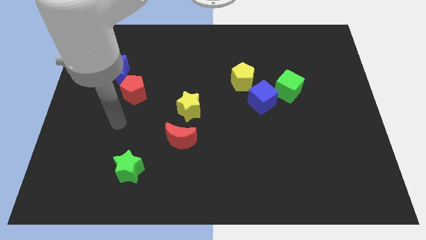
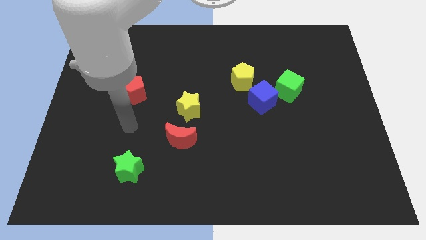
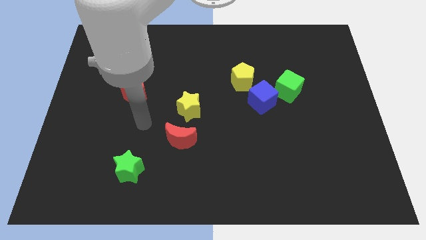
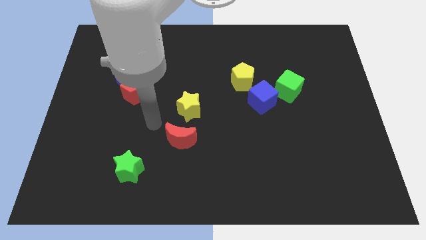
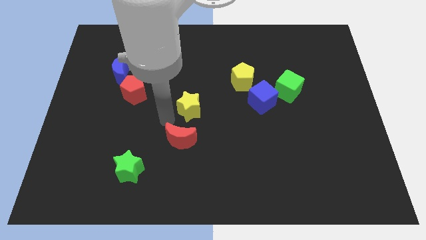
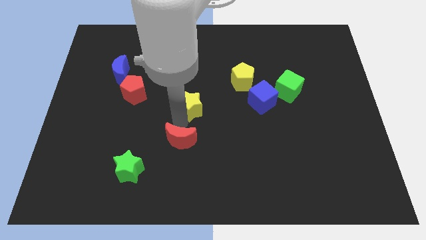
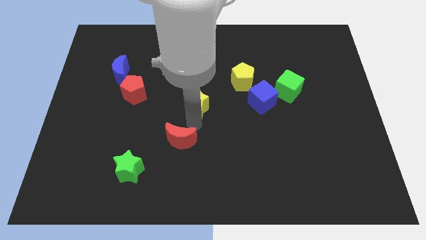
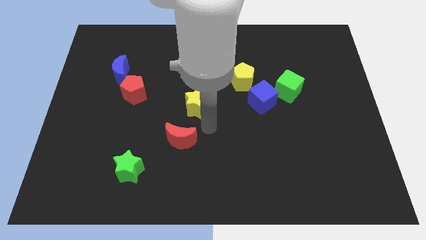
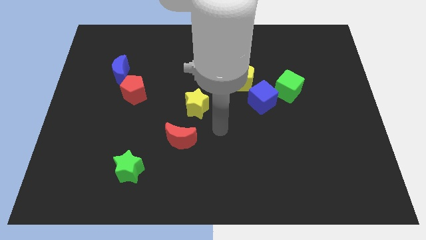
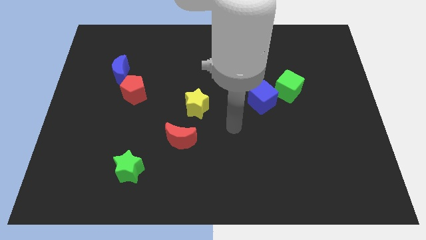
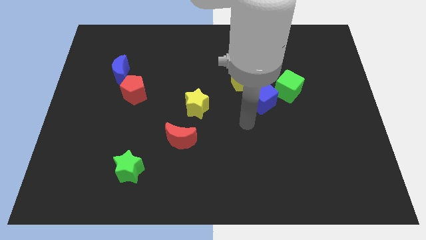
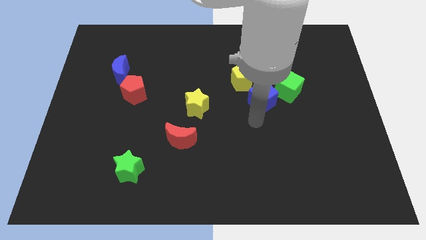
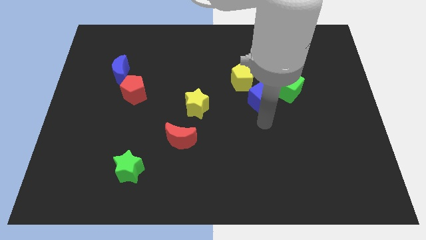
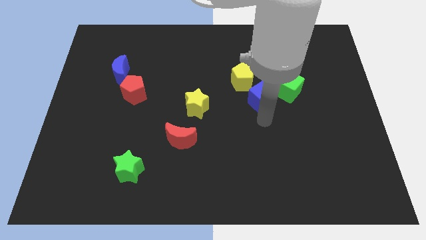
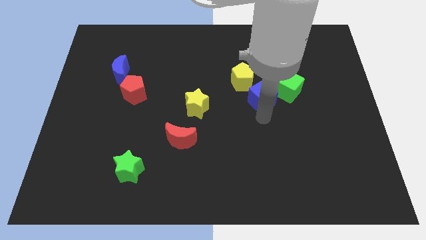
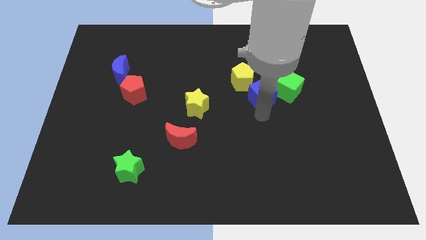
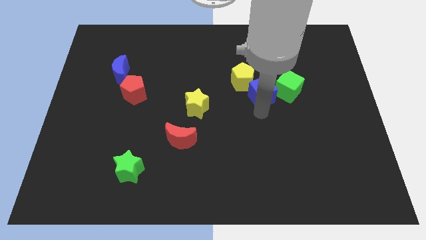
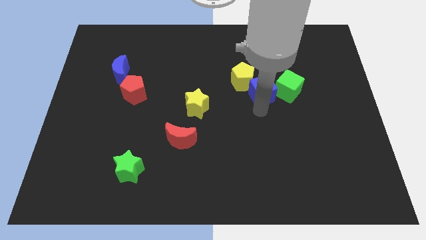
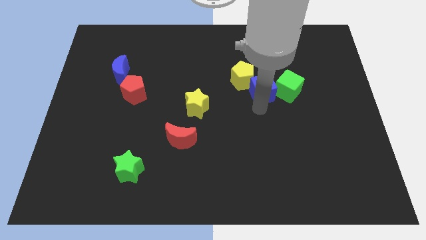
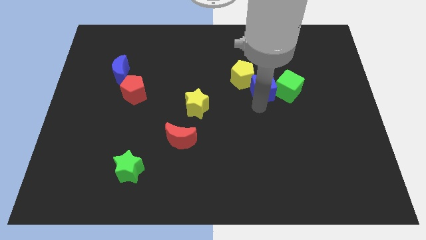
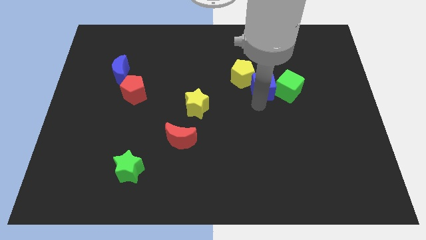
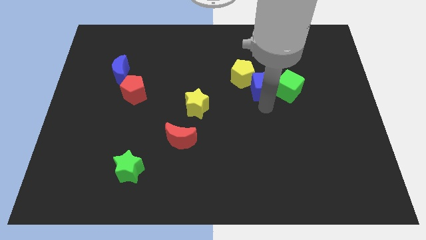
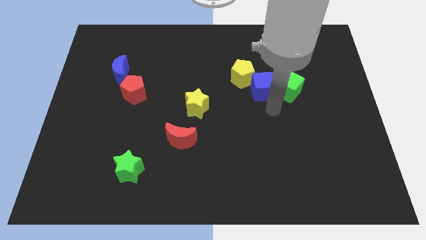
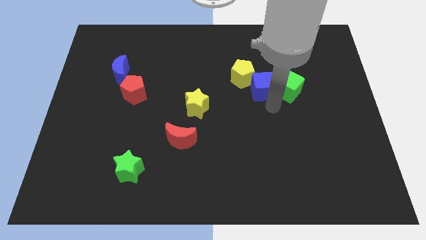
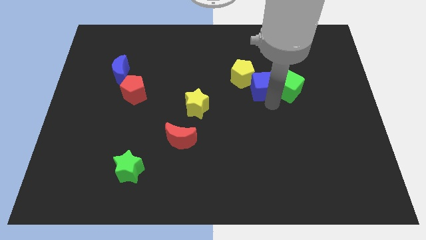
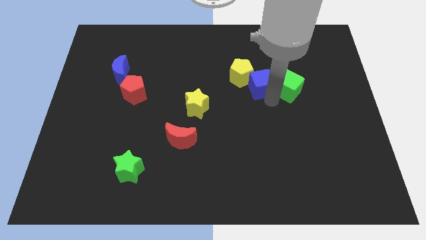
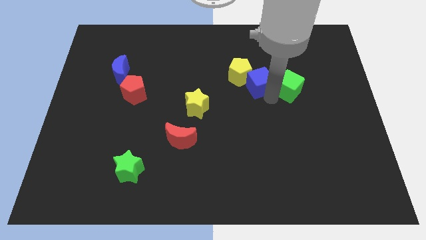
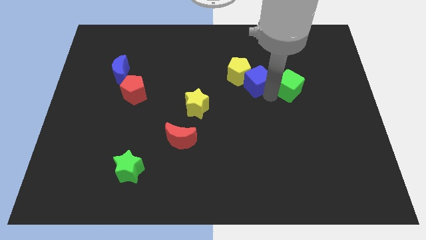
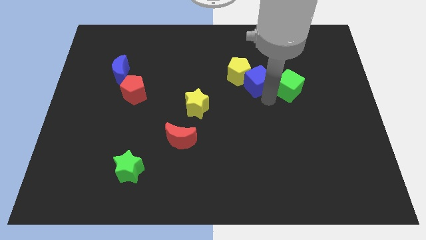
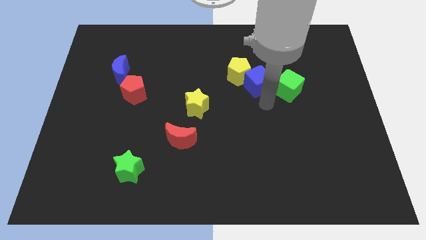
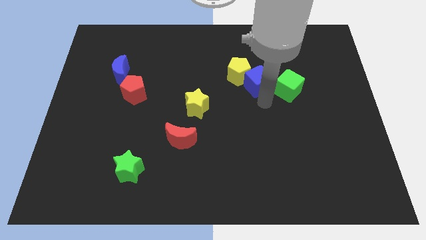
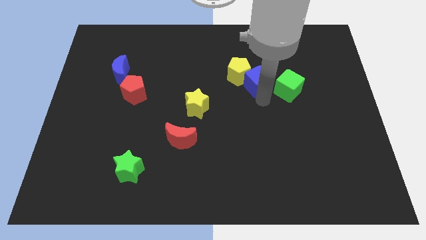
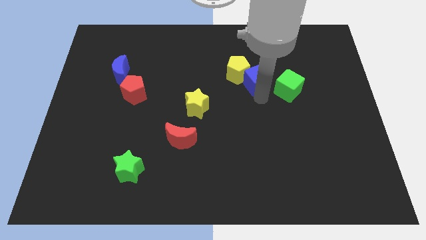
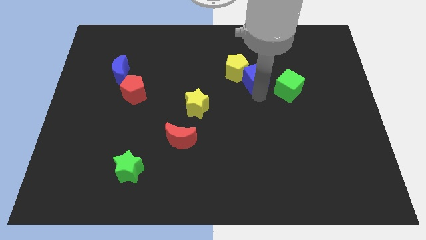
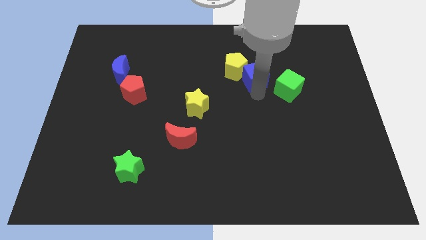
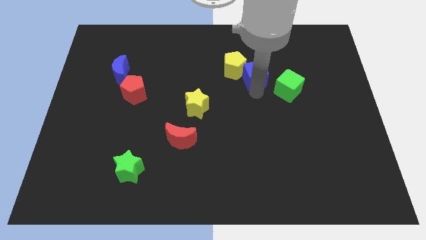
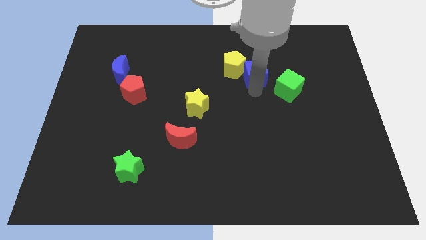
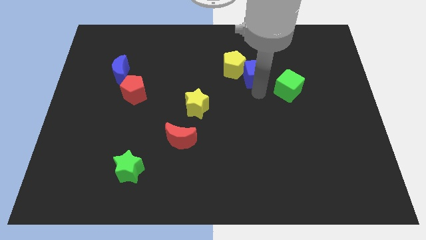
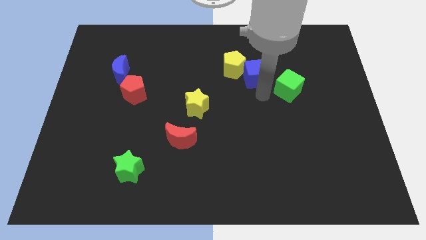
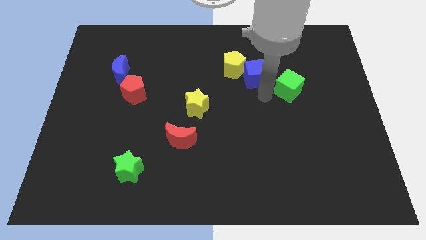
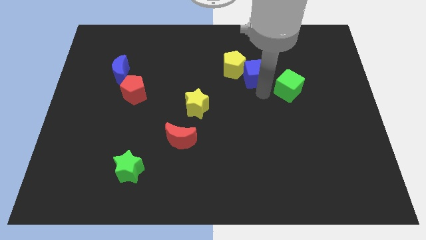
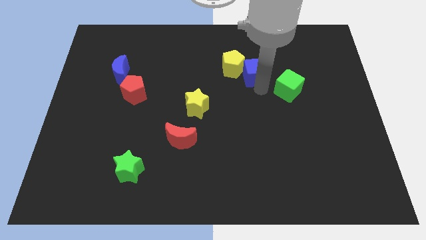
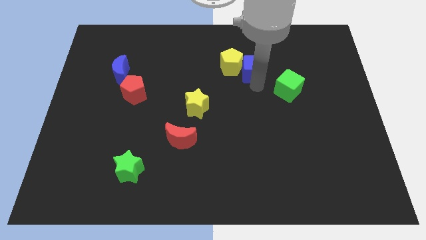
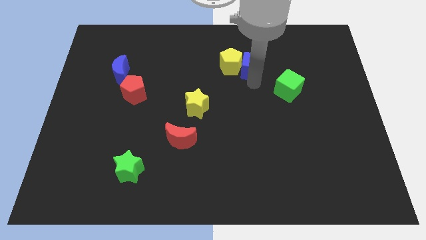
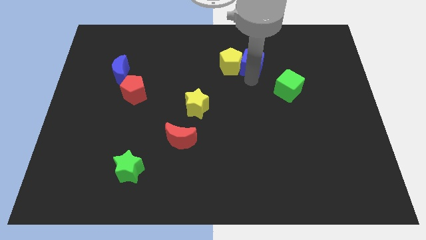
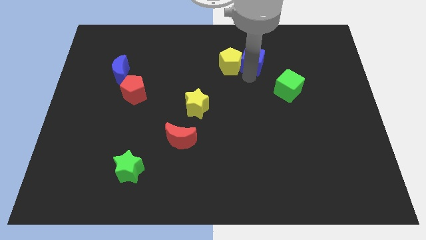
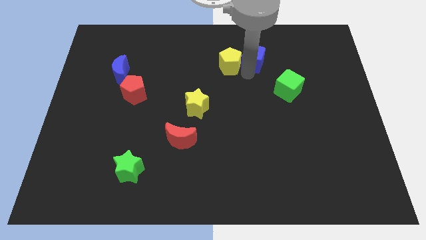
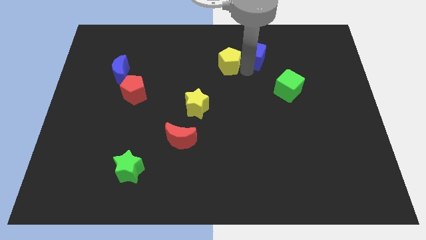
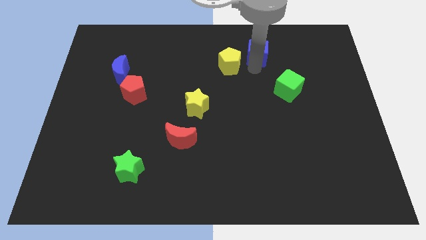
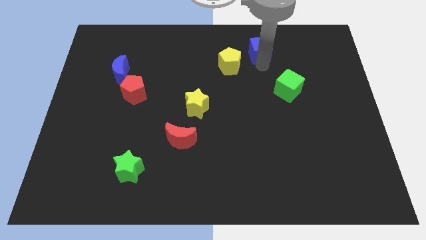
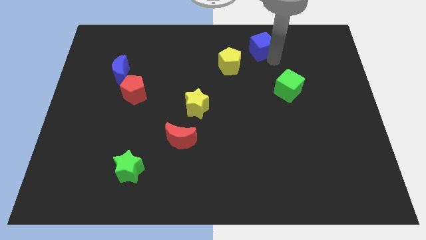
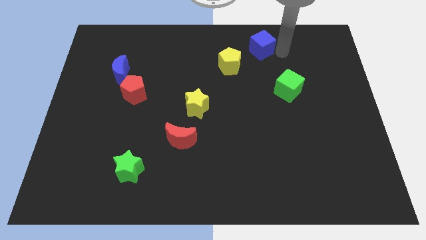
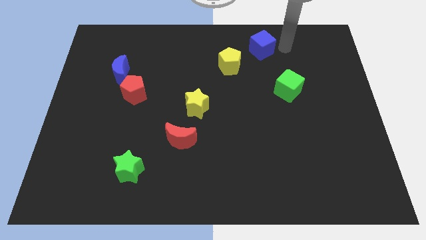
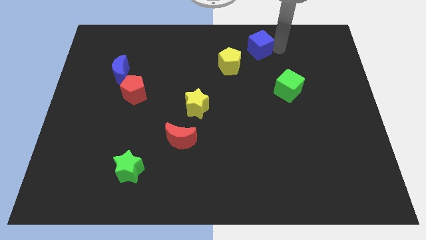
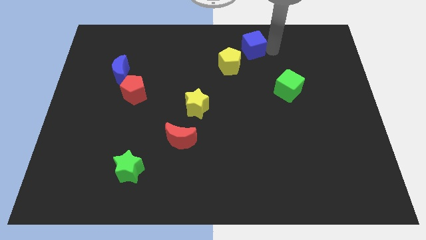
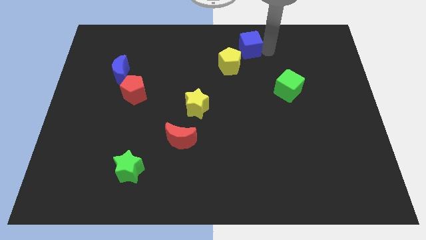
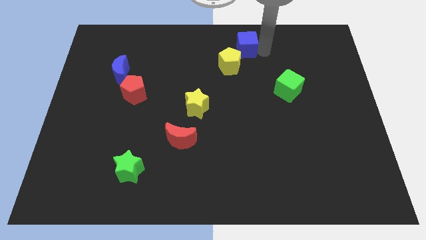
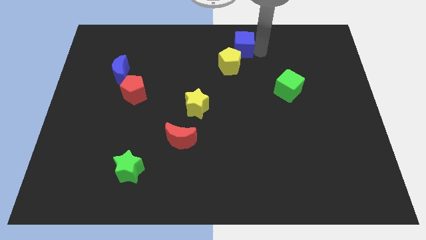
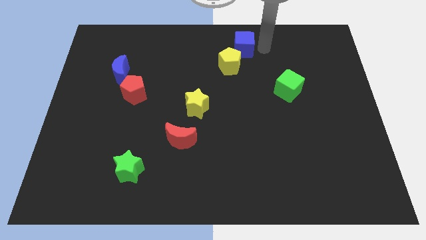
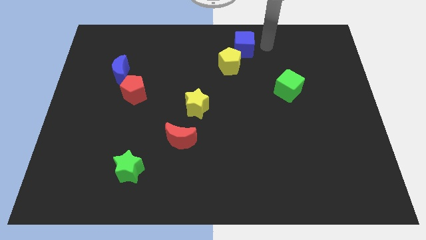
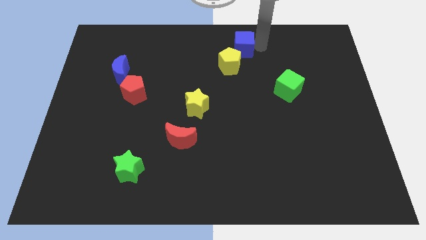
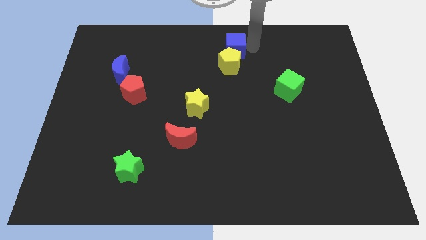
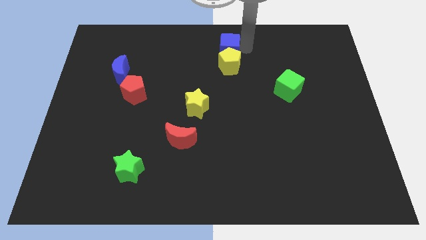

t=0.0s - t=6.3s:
slide the blue cube diagonally up and to the left of the yellow pentagon
